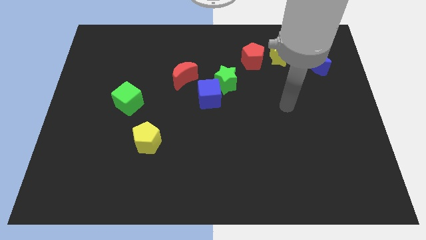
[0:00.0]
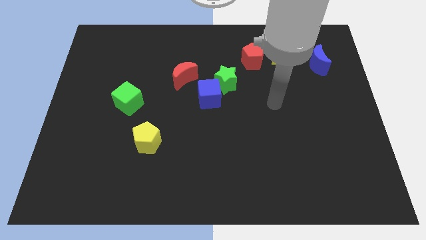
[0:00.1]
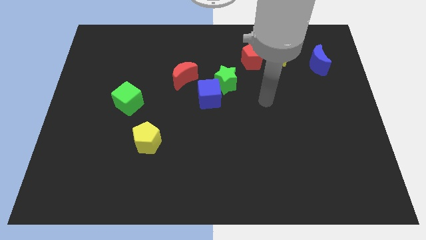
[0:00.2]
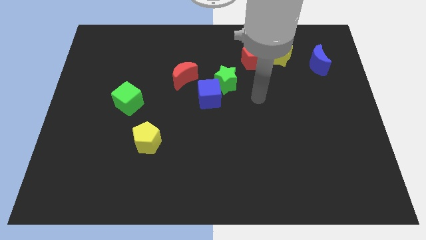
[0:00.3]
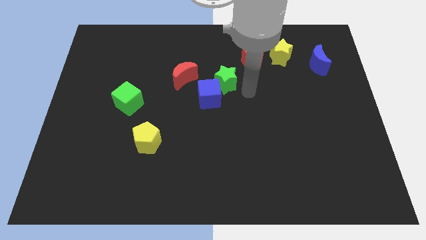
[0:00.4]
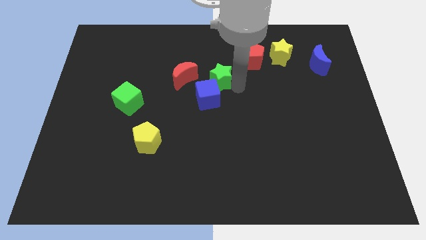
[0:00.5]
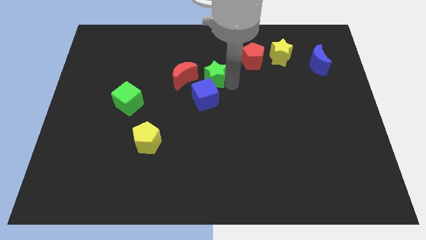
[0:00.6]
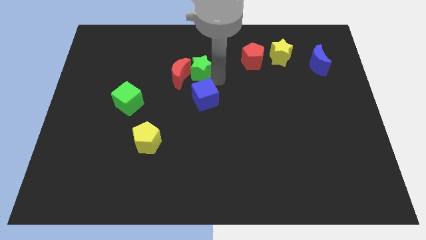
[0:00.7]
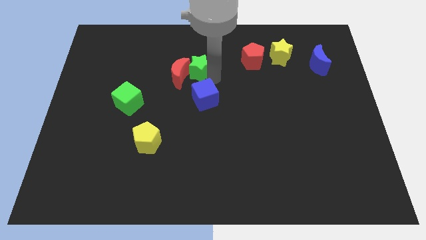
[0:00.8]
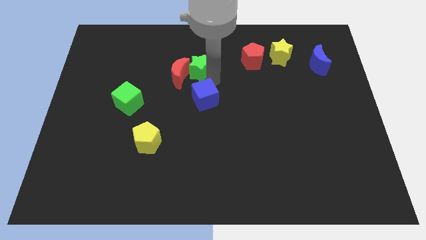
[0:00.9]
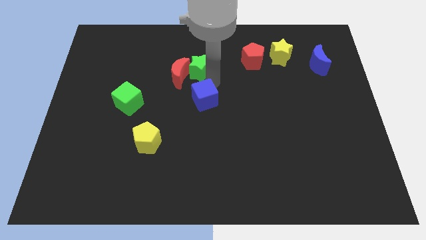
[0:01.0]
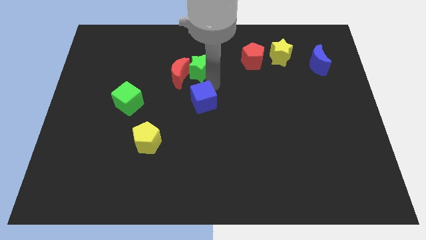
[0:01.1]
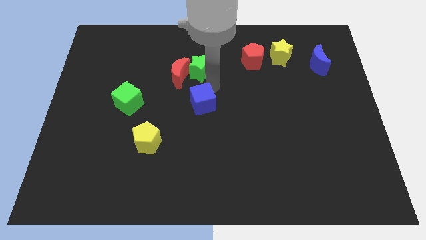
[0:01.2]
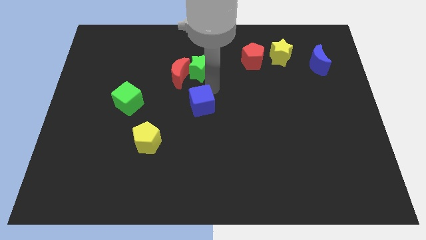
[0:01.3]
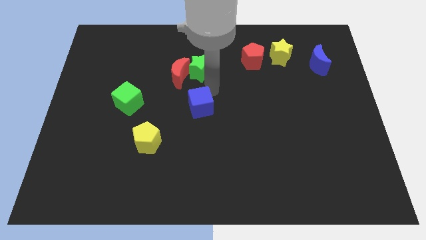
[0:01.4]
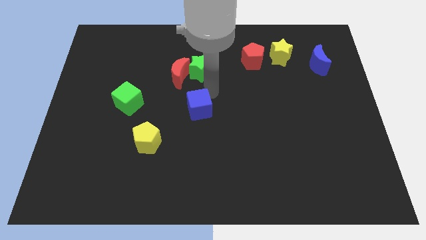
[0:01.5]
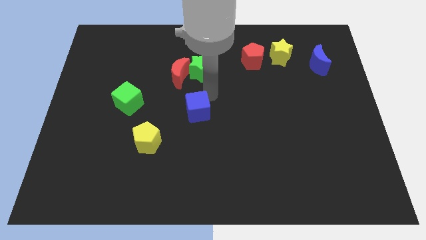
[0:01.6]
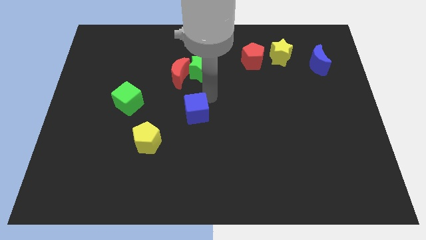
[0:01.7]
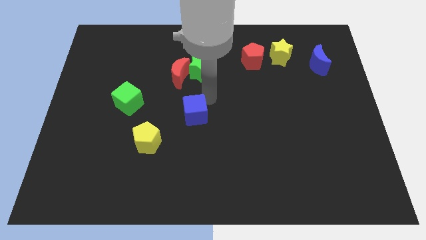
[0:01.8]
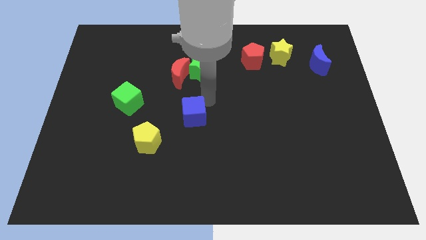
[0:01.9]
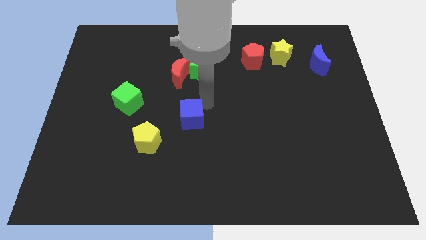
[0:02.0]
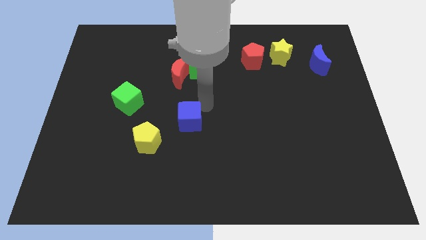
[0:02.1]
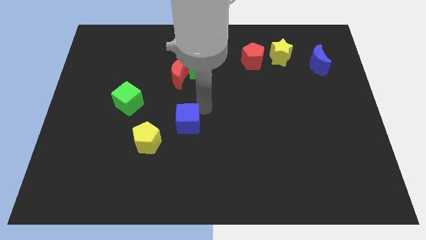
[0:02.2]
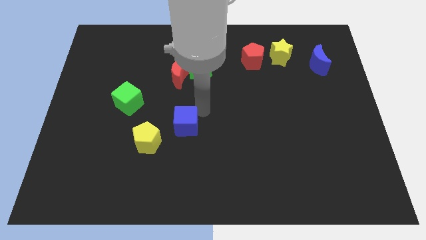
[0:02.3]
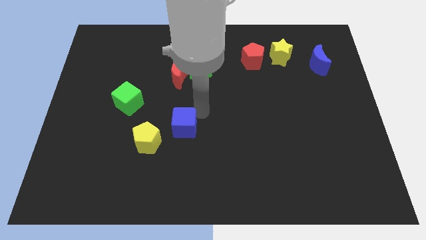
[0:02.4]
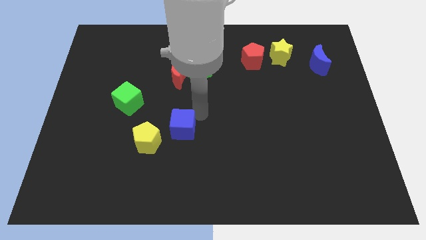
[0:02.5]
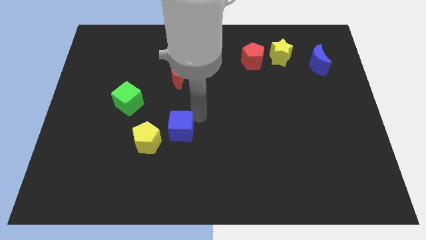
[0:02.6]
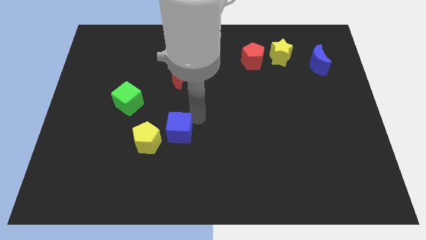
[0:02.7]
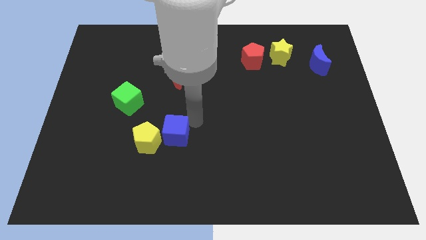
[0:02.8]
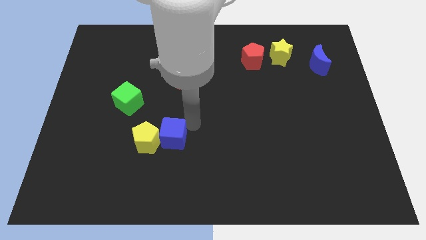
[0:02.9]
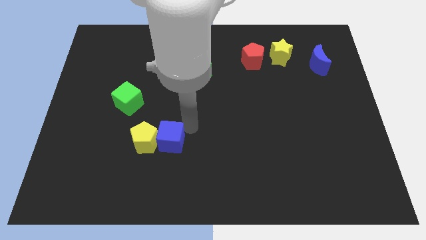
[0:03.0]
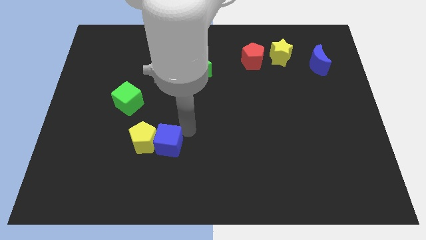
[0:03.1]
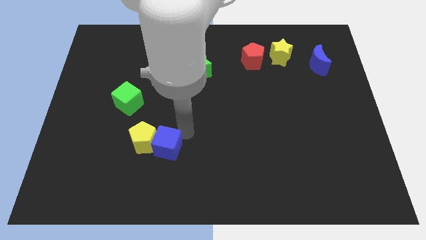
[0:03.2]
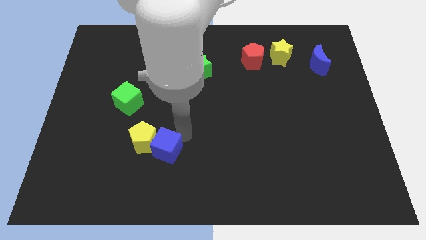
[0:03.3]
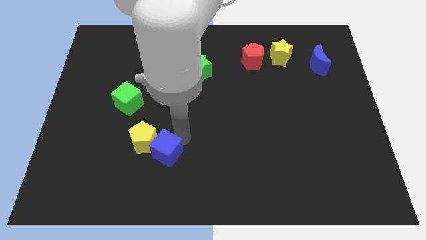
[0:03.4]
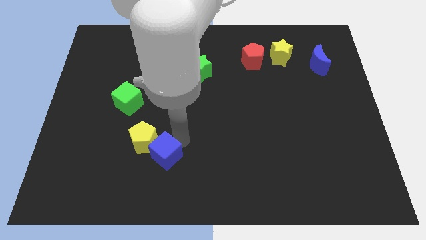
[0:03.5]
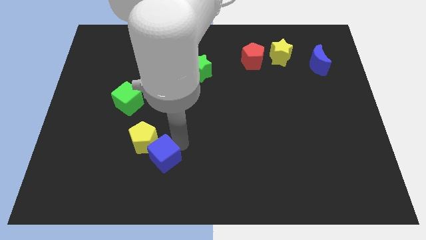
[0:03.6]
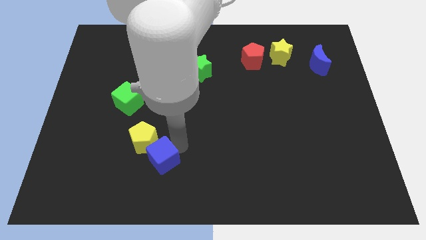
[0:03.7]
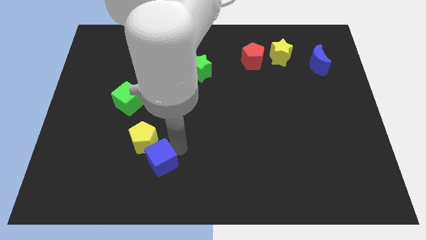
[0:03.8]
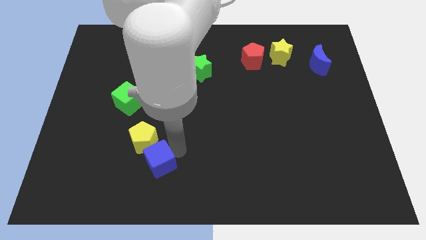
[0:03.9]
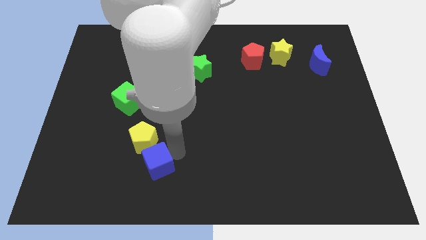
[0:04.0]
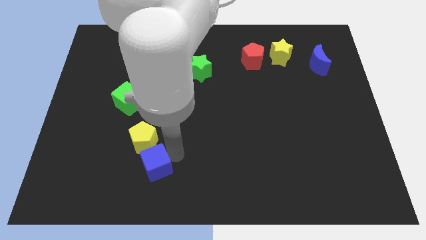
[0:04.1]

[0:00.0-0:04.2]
push the blue cube downwards and to the left diagonally

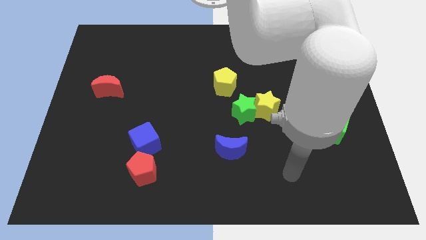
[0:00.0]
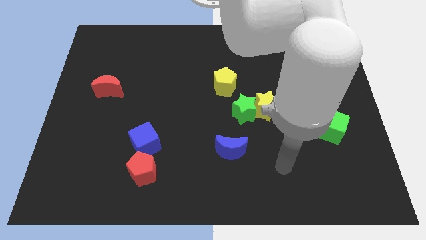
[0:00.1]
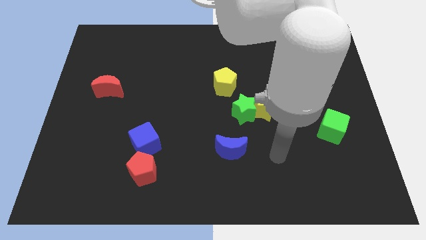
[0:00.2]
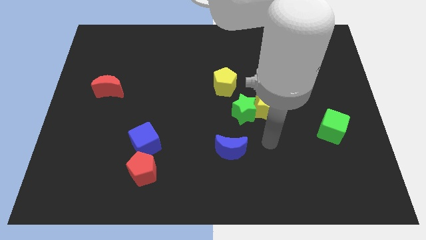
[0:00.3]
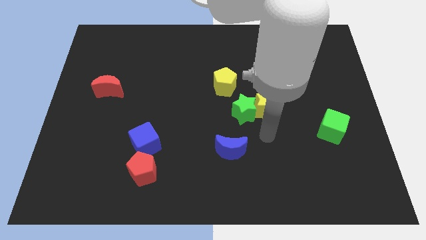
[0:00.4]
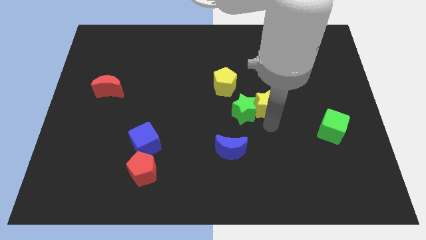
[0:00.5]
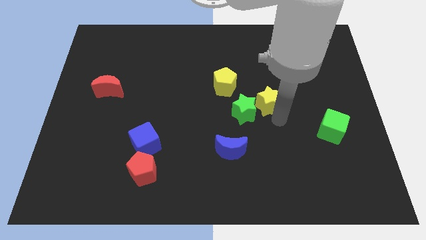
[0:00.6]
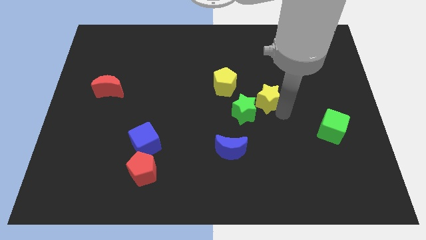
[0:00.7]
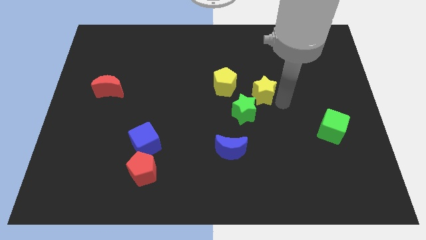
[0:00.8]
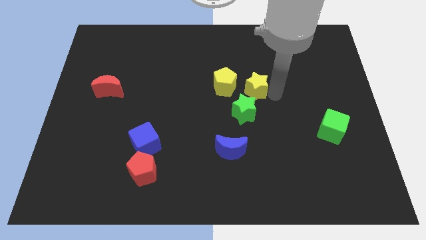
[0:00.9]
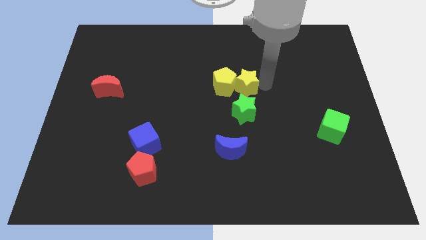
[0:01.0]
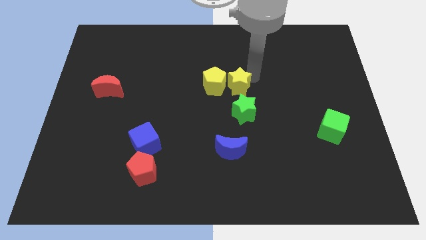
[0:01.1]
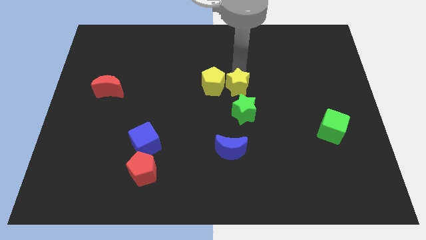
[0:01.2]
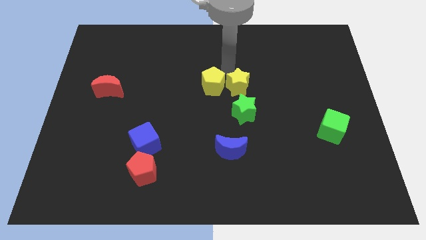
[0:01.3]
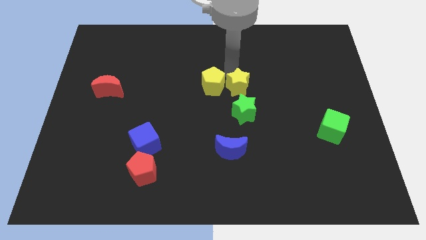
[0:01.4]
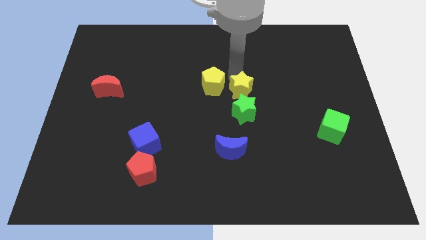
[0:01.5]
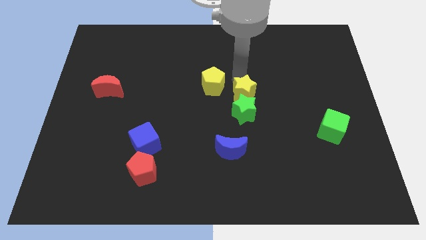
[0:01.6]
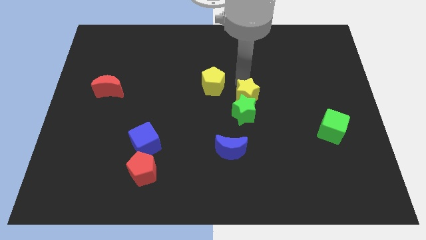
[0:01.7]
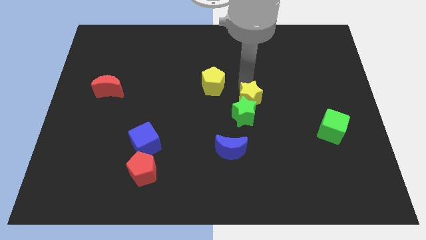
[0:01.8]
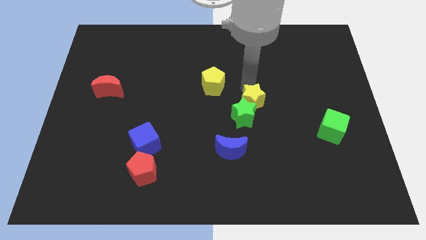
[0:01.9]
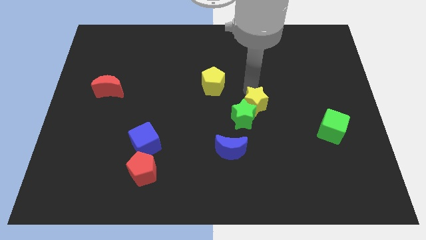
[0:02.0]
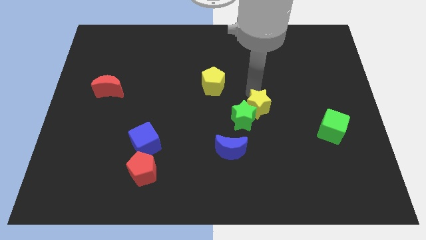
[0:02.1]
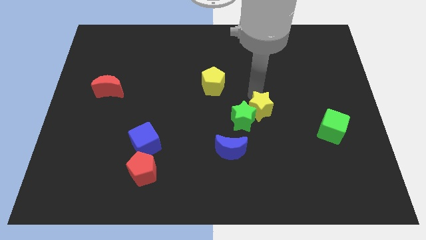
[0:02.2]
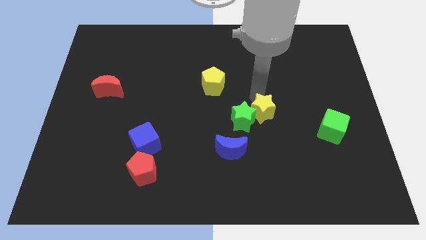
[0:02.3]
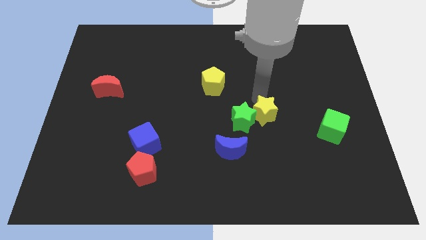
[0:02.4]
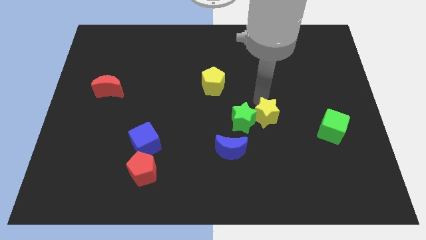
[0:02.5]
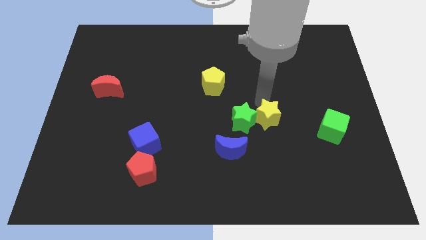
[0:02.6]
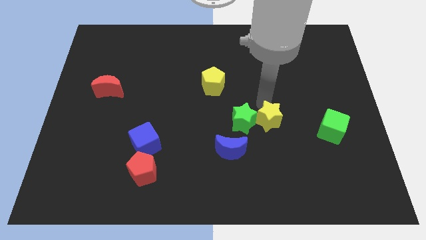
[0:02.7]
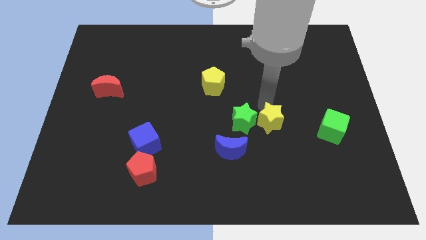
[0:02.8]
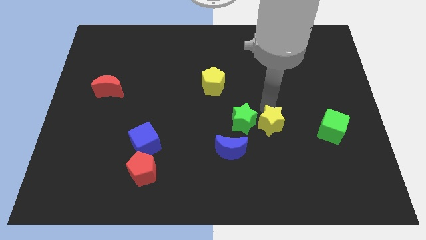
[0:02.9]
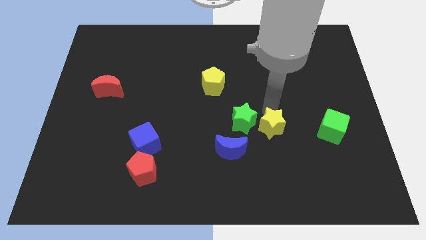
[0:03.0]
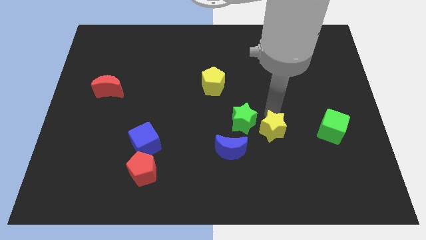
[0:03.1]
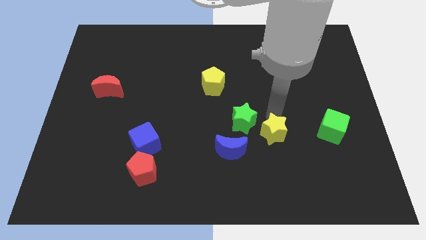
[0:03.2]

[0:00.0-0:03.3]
move the yellow star somewhat downwards

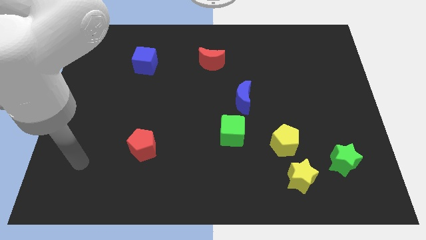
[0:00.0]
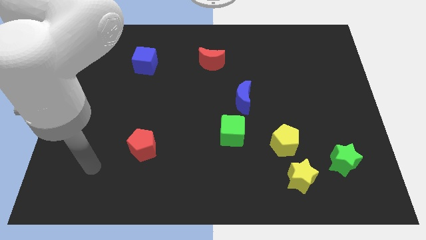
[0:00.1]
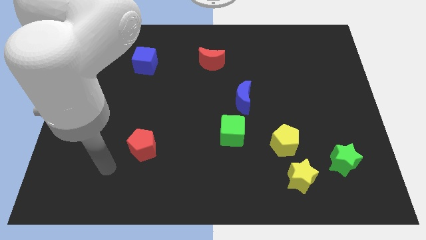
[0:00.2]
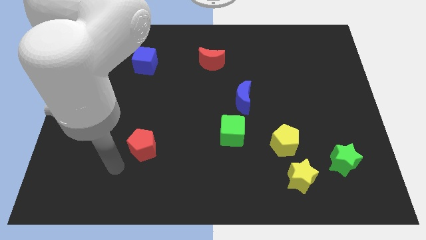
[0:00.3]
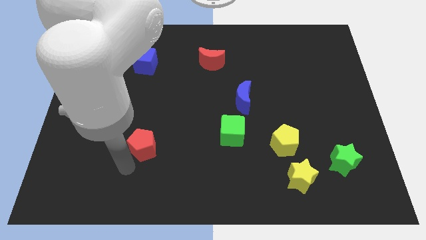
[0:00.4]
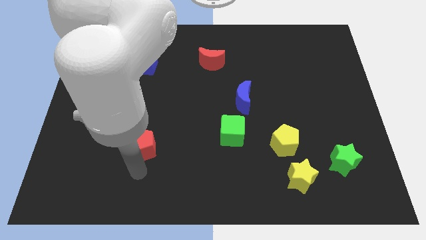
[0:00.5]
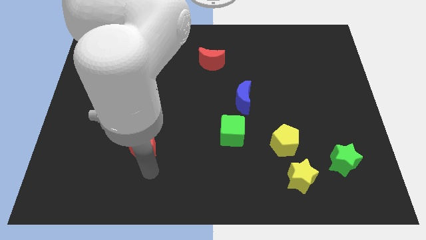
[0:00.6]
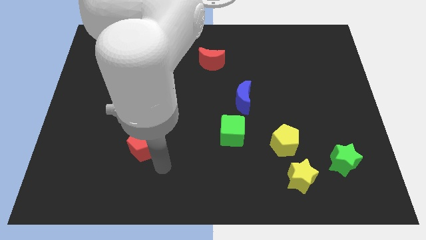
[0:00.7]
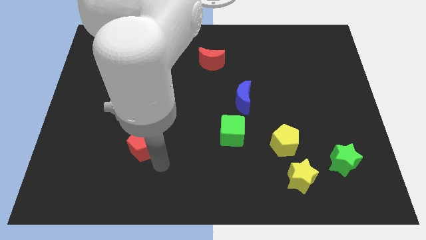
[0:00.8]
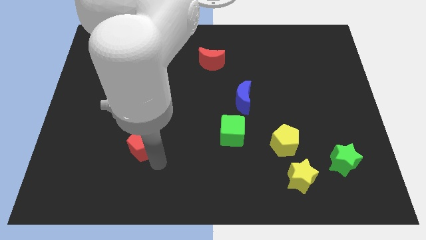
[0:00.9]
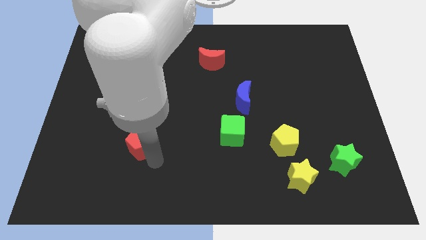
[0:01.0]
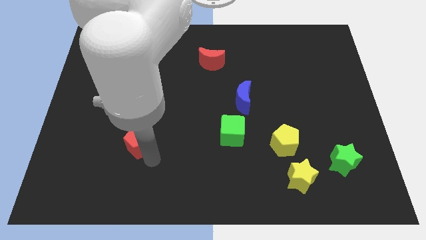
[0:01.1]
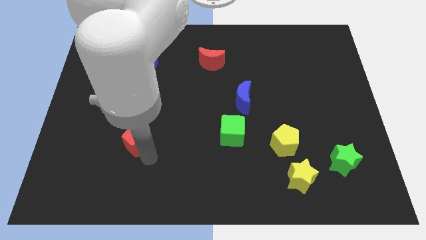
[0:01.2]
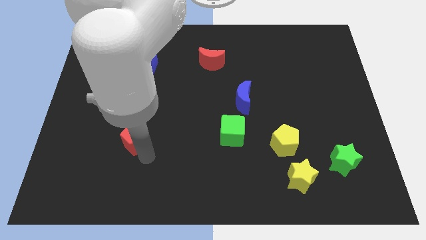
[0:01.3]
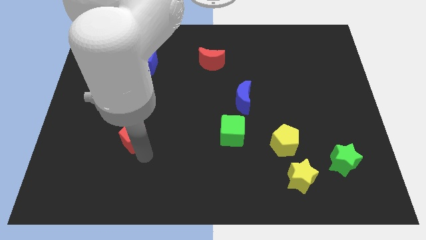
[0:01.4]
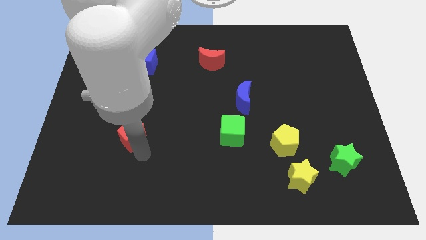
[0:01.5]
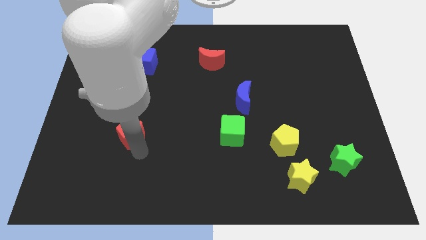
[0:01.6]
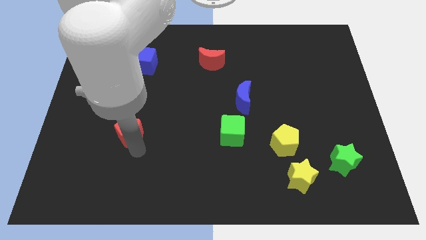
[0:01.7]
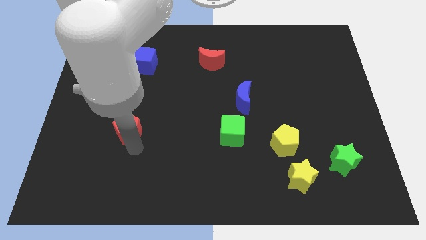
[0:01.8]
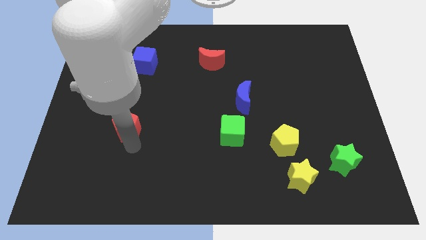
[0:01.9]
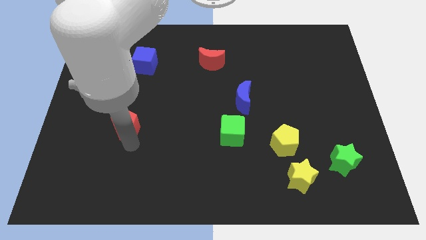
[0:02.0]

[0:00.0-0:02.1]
move the red pentagon upwards and to the left diagonally a bit
